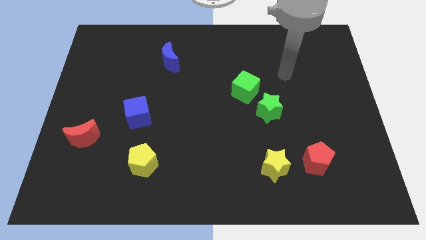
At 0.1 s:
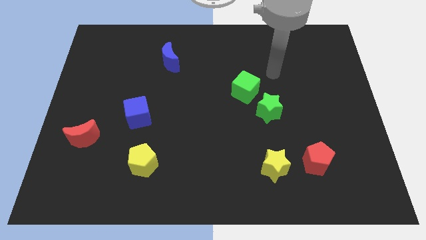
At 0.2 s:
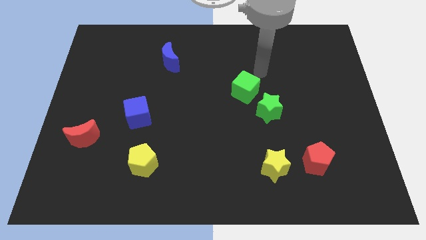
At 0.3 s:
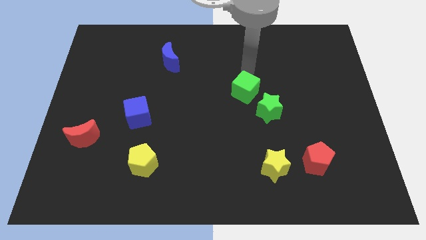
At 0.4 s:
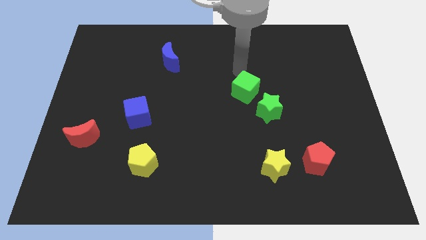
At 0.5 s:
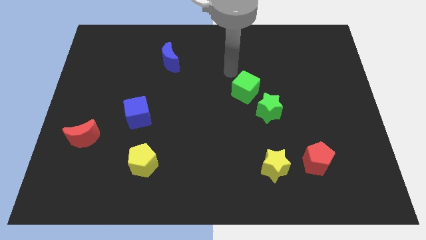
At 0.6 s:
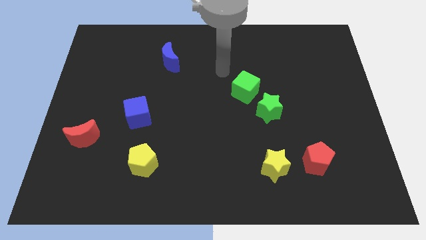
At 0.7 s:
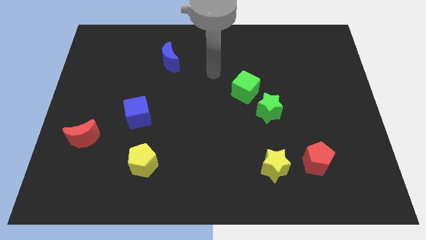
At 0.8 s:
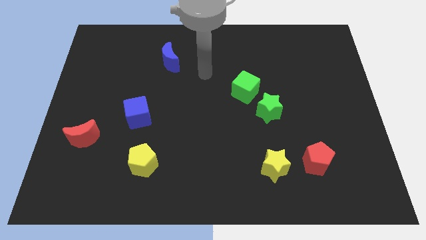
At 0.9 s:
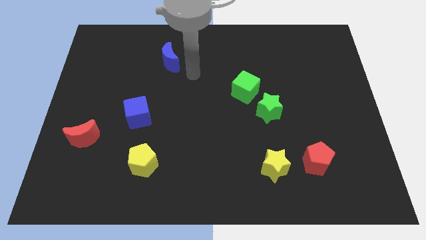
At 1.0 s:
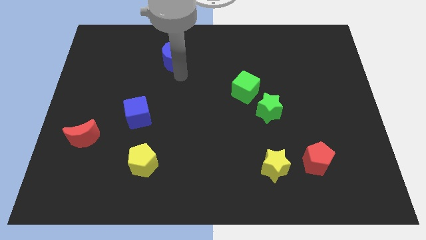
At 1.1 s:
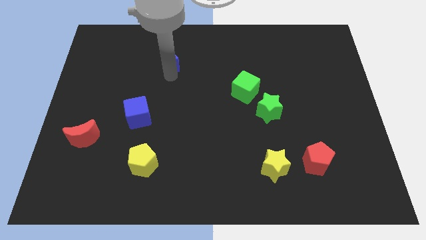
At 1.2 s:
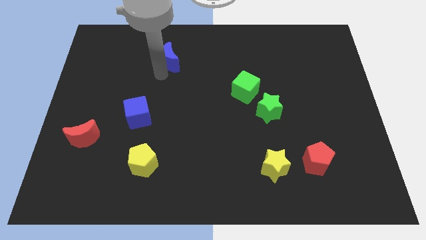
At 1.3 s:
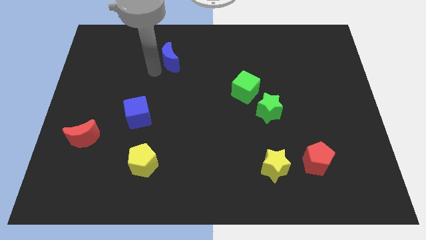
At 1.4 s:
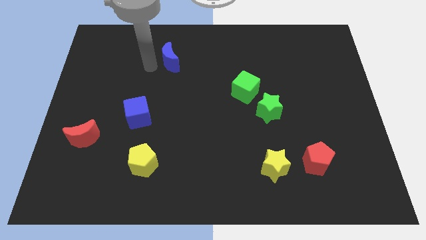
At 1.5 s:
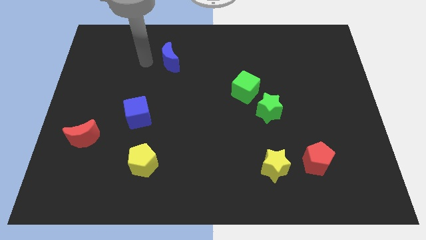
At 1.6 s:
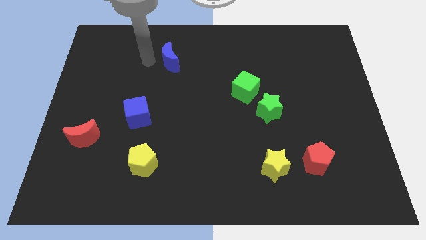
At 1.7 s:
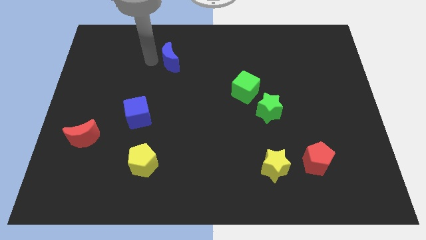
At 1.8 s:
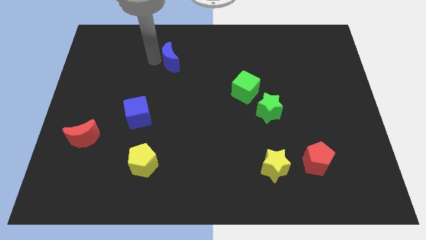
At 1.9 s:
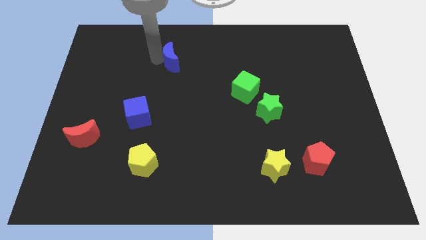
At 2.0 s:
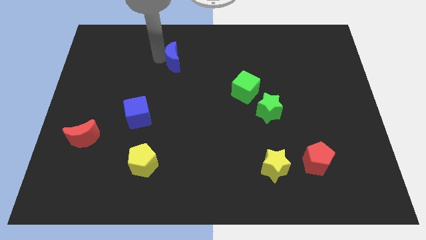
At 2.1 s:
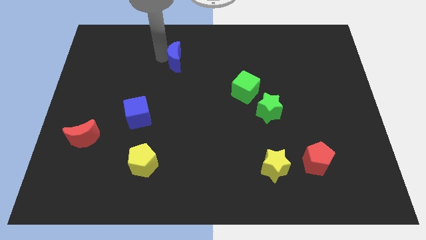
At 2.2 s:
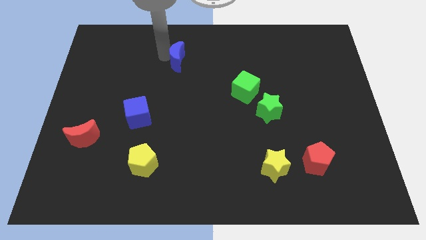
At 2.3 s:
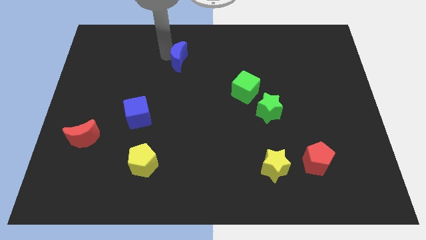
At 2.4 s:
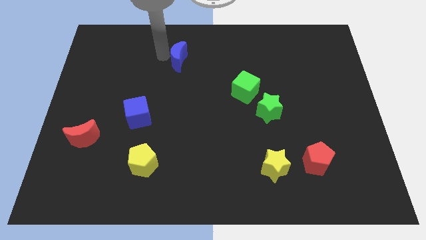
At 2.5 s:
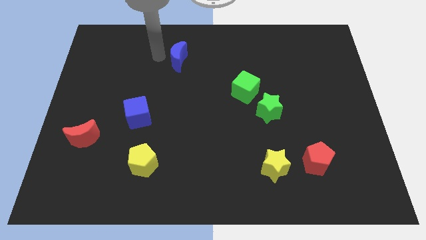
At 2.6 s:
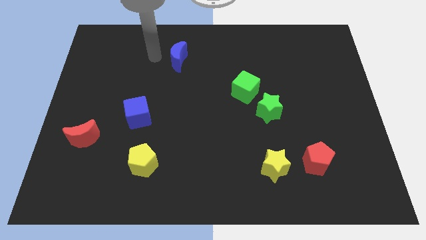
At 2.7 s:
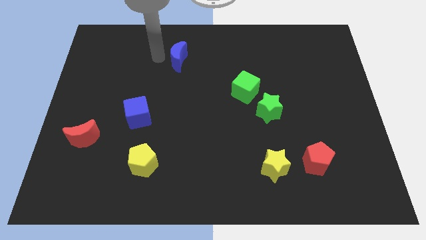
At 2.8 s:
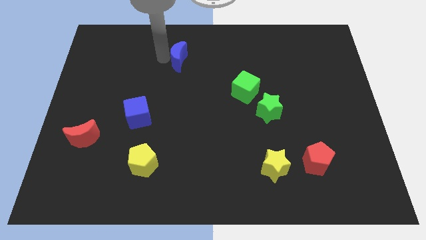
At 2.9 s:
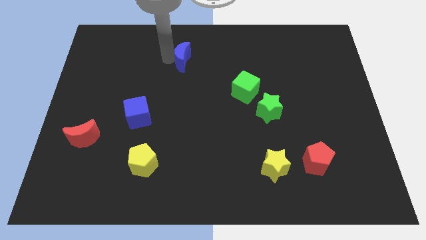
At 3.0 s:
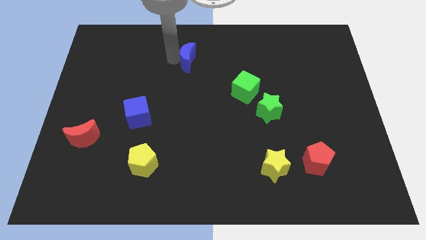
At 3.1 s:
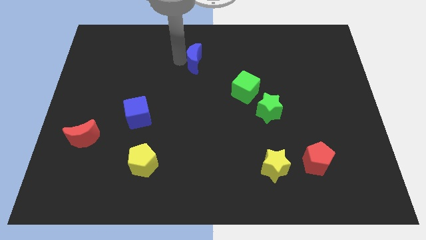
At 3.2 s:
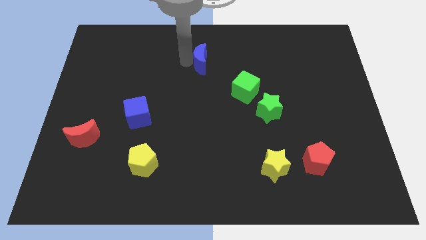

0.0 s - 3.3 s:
move the blue moon slightly to the right

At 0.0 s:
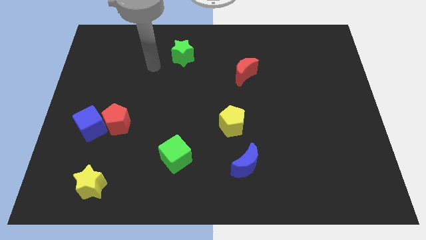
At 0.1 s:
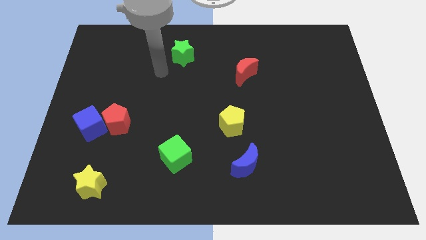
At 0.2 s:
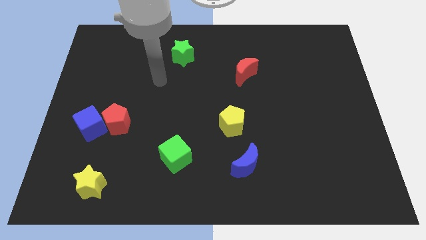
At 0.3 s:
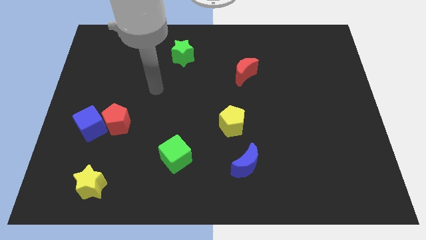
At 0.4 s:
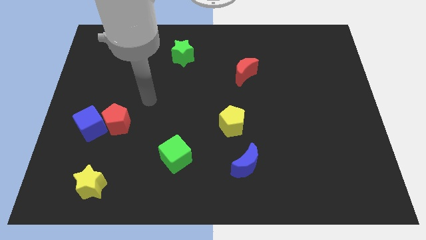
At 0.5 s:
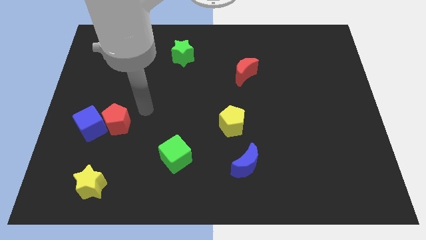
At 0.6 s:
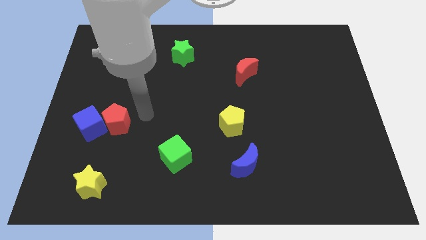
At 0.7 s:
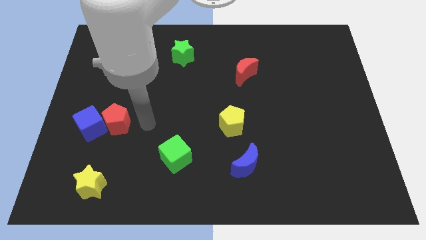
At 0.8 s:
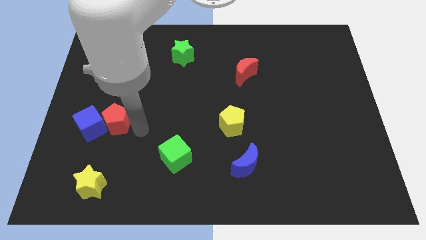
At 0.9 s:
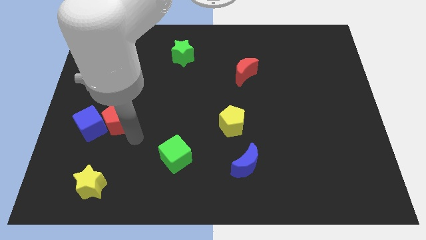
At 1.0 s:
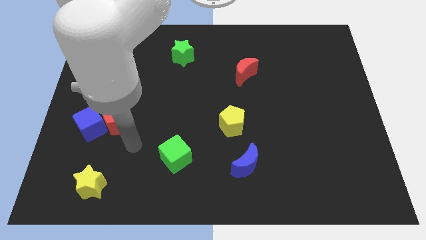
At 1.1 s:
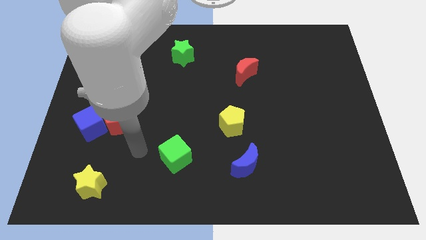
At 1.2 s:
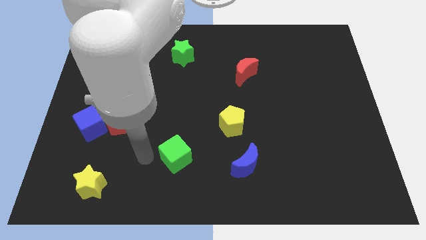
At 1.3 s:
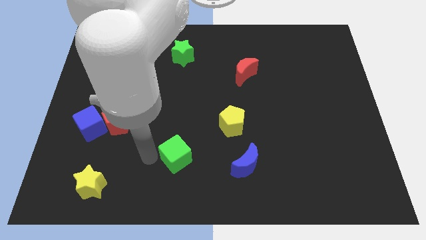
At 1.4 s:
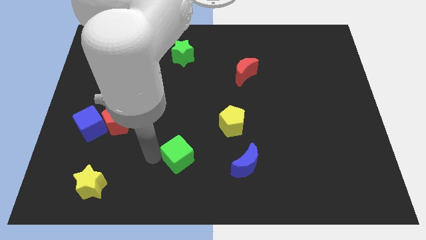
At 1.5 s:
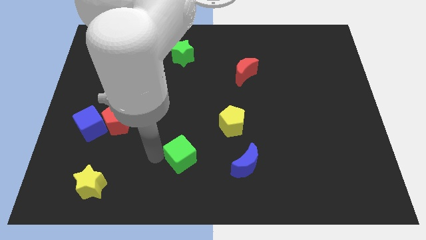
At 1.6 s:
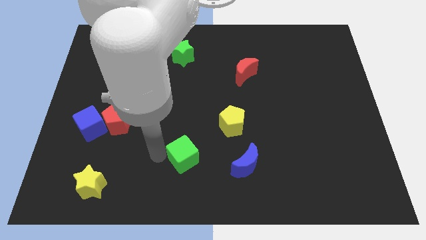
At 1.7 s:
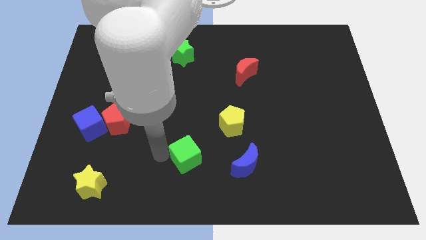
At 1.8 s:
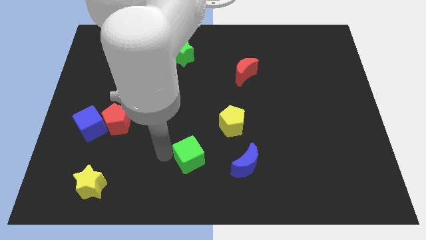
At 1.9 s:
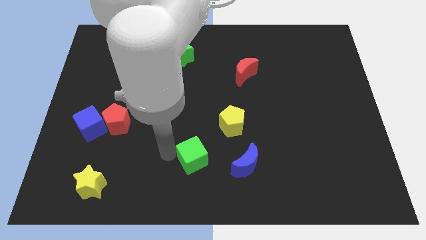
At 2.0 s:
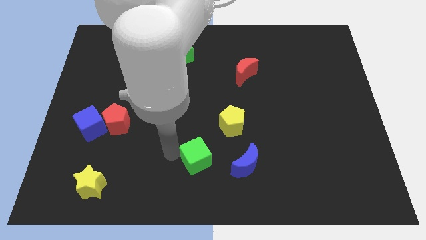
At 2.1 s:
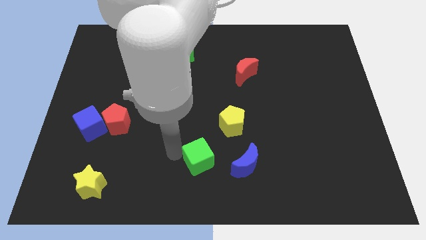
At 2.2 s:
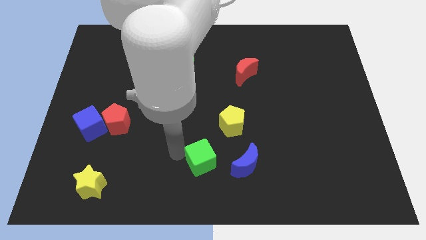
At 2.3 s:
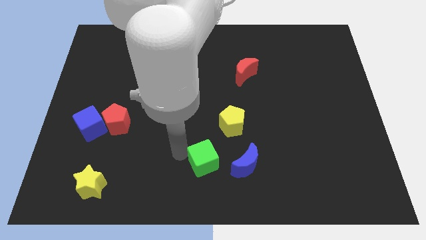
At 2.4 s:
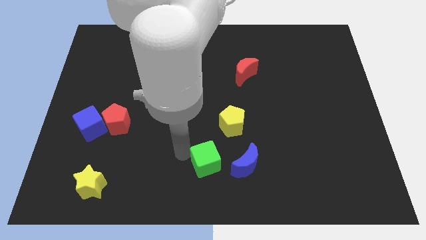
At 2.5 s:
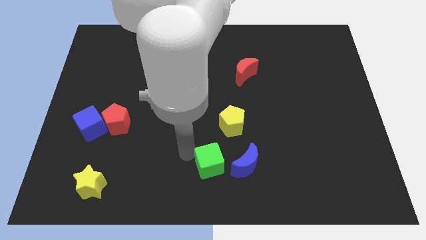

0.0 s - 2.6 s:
slightly push the green cube to the right

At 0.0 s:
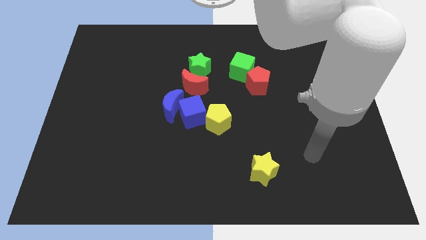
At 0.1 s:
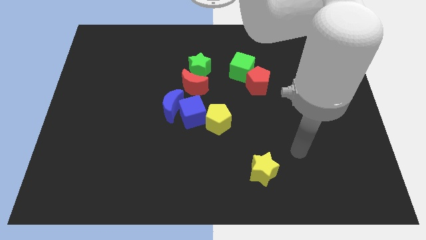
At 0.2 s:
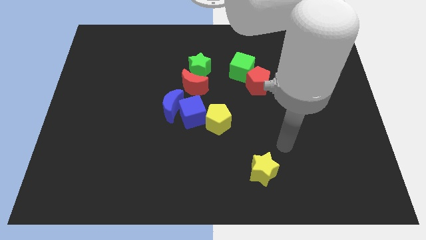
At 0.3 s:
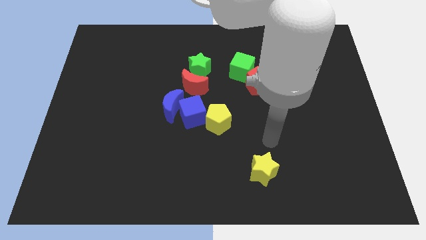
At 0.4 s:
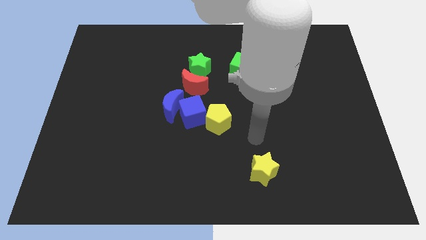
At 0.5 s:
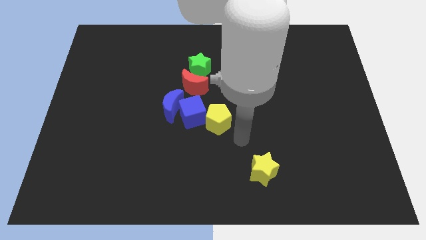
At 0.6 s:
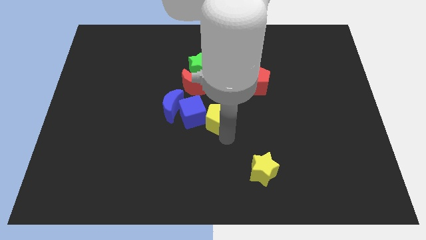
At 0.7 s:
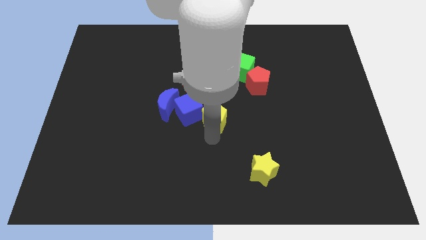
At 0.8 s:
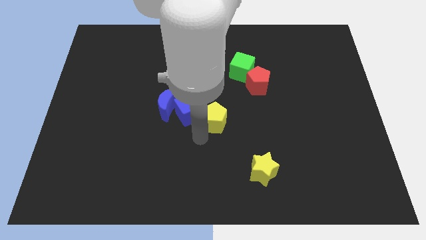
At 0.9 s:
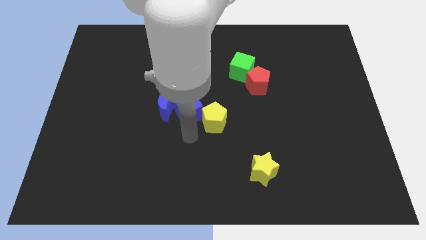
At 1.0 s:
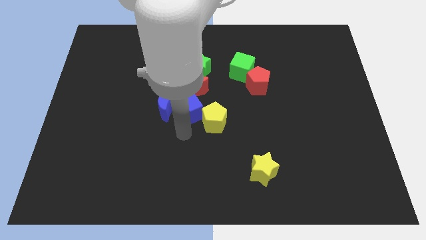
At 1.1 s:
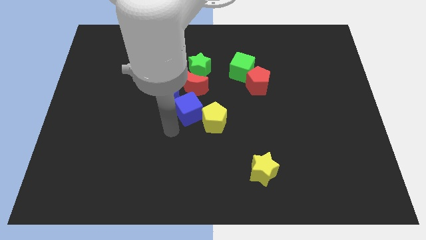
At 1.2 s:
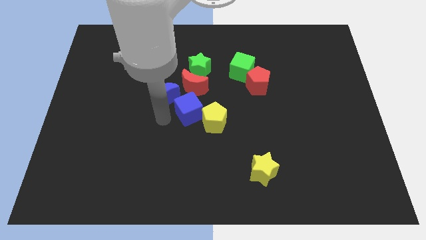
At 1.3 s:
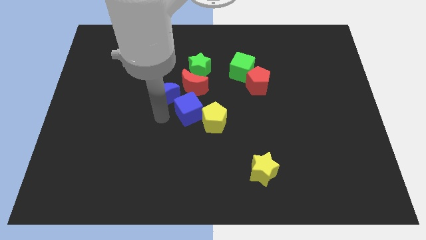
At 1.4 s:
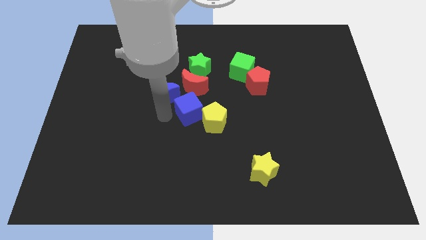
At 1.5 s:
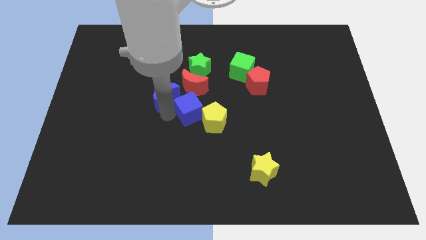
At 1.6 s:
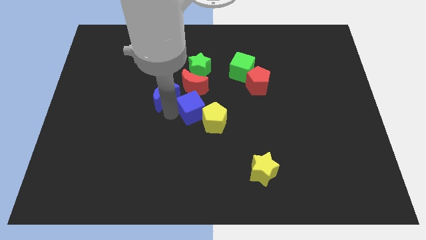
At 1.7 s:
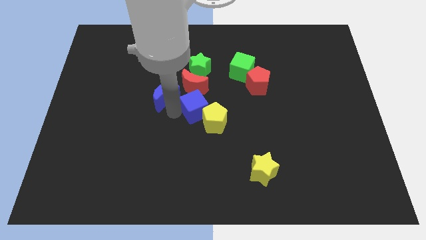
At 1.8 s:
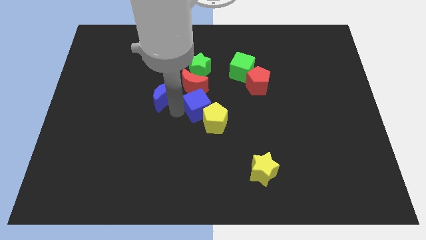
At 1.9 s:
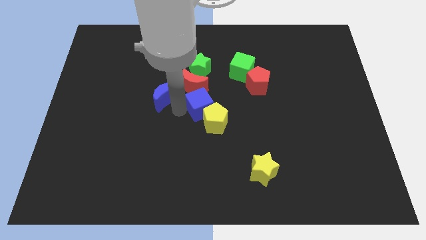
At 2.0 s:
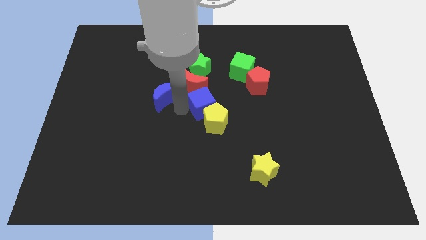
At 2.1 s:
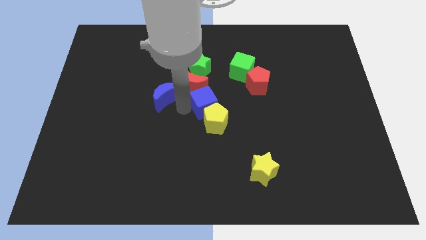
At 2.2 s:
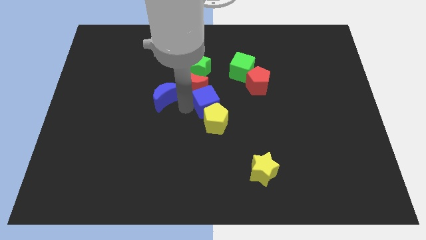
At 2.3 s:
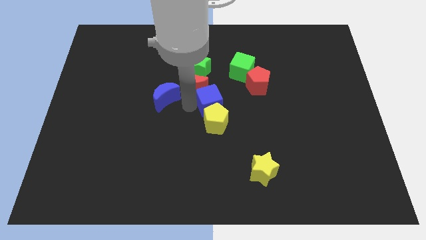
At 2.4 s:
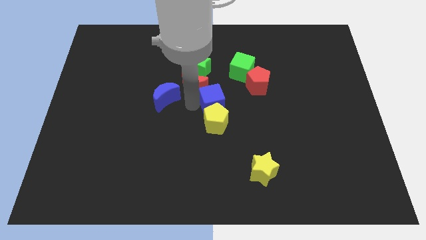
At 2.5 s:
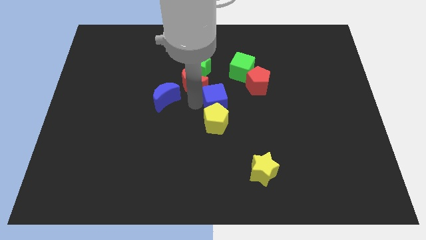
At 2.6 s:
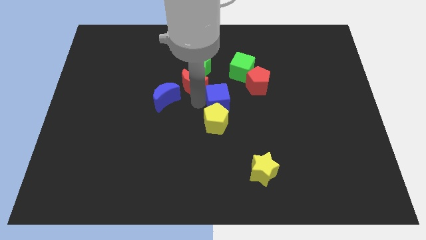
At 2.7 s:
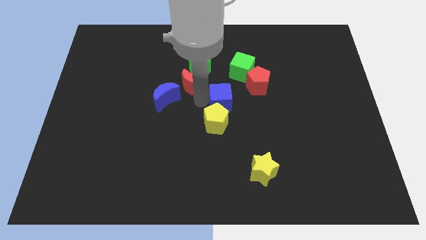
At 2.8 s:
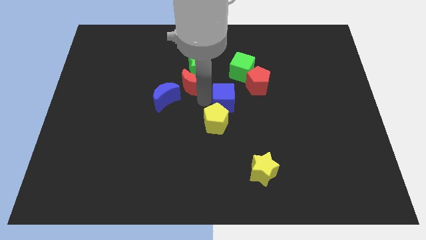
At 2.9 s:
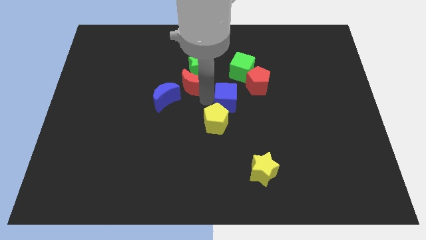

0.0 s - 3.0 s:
push the blue cube right a bit
